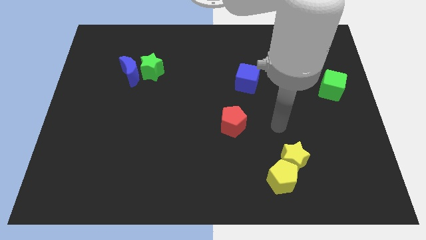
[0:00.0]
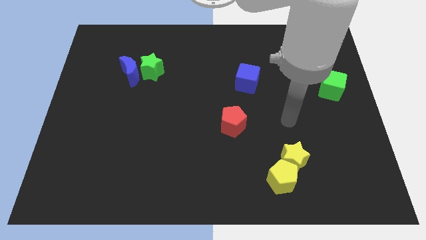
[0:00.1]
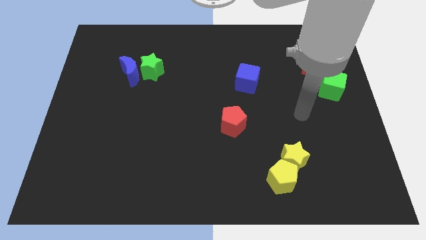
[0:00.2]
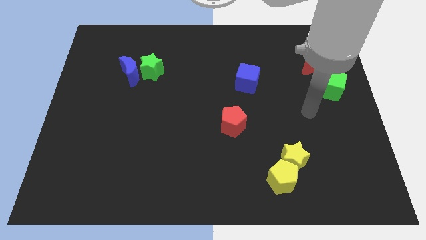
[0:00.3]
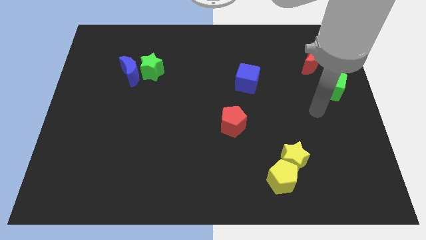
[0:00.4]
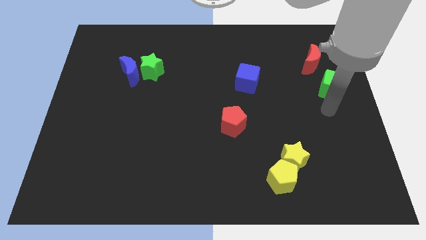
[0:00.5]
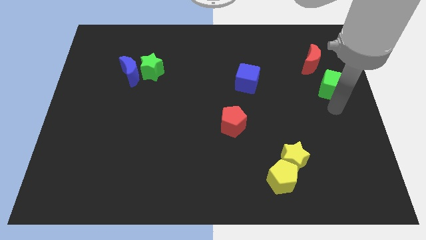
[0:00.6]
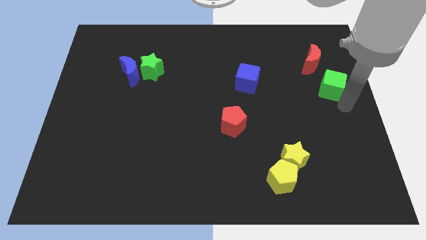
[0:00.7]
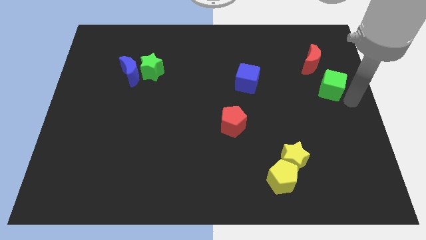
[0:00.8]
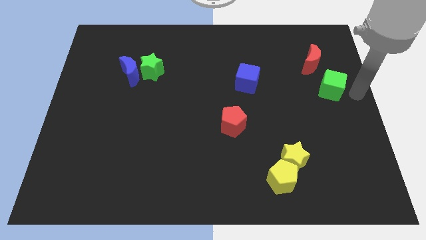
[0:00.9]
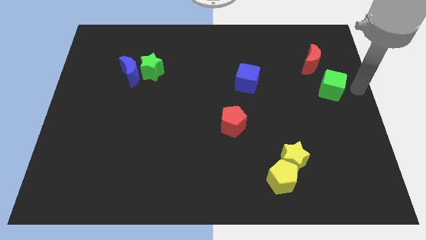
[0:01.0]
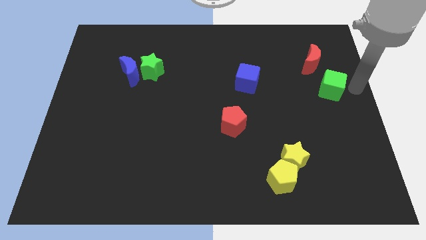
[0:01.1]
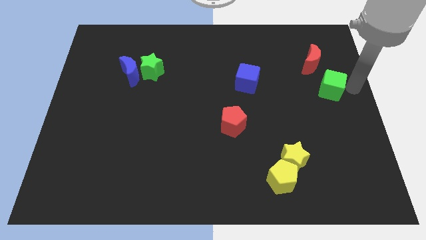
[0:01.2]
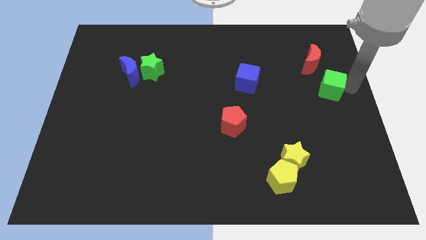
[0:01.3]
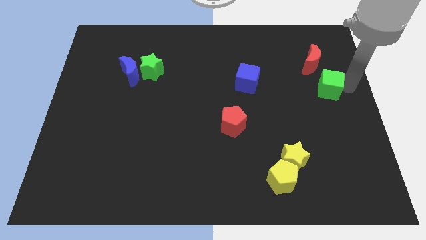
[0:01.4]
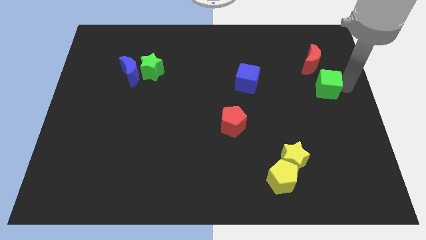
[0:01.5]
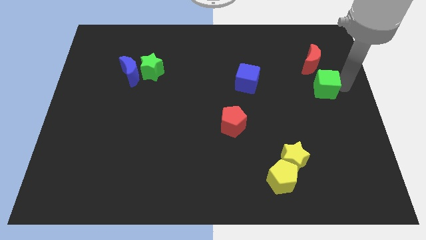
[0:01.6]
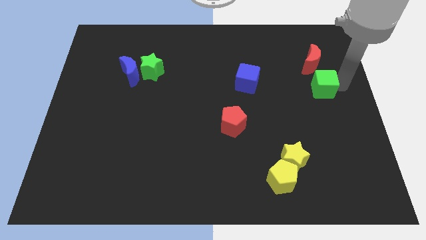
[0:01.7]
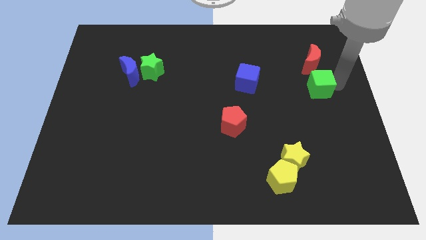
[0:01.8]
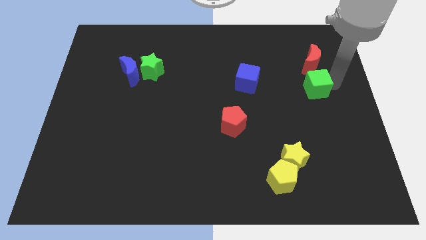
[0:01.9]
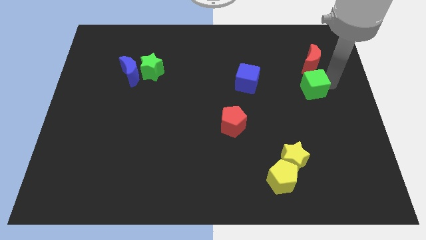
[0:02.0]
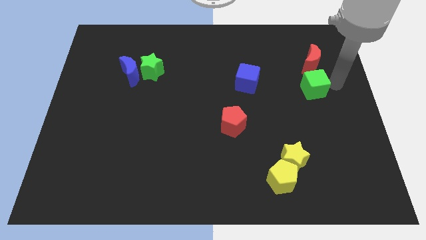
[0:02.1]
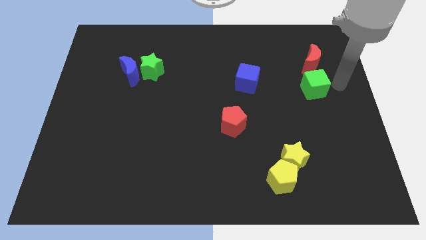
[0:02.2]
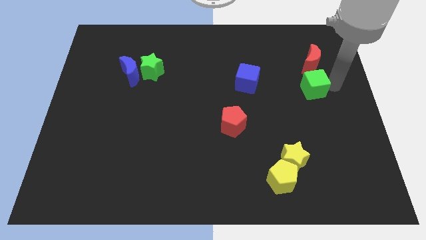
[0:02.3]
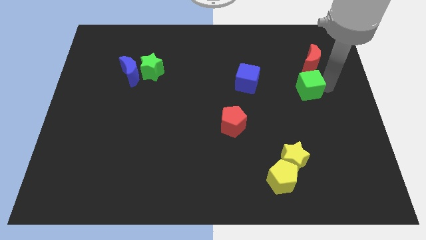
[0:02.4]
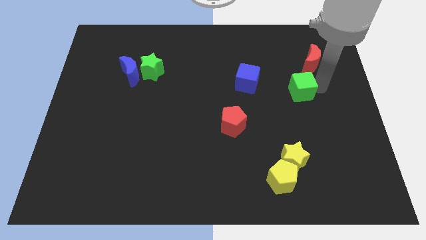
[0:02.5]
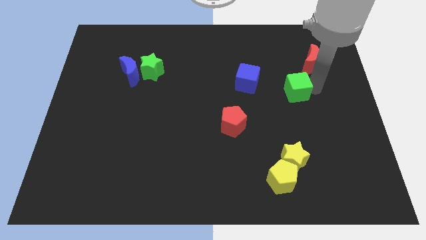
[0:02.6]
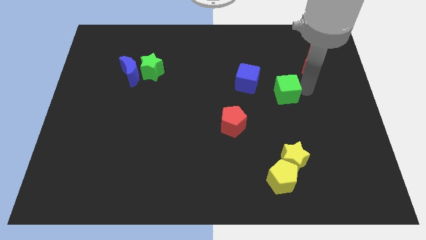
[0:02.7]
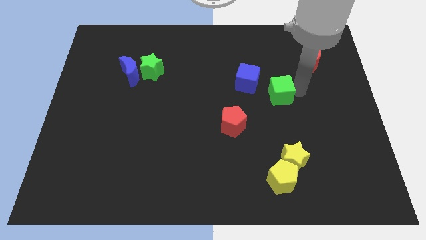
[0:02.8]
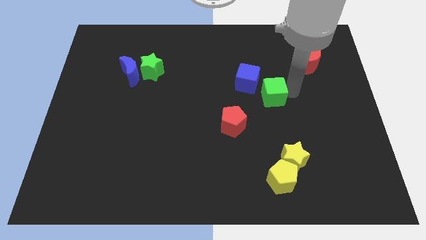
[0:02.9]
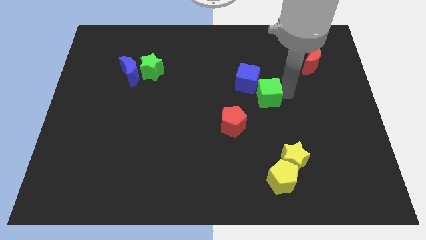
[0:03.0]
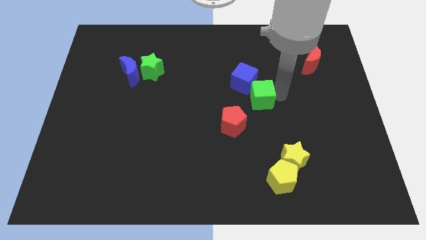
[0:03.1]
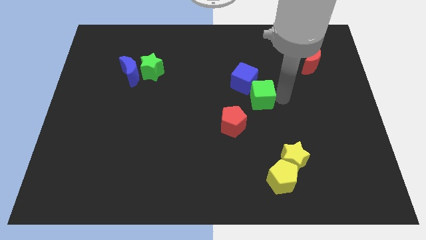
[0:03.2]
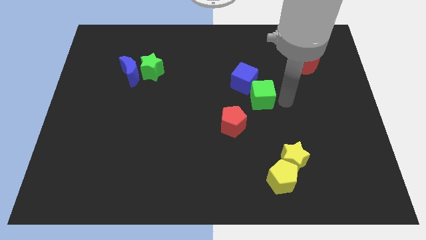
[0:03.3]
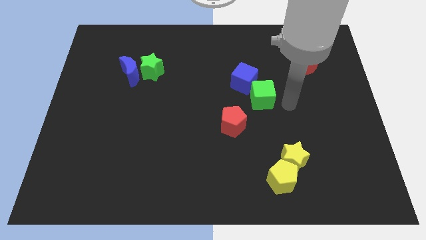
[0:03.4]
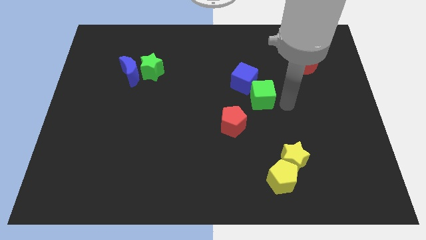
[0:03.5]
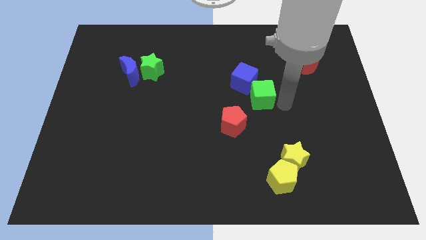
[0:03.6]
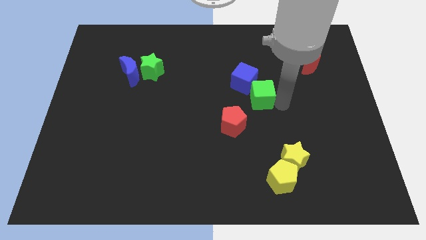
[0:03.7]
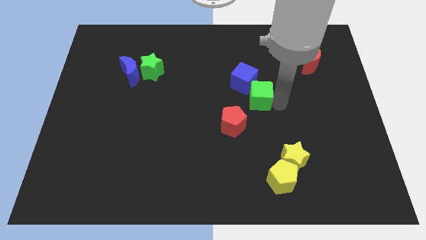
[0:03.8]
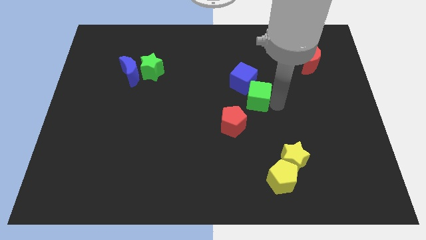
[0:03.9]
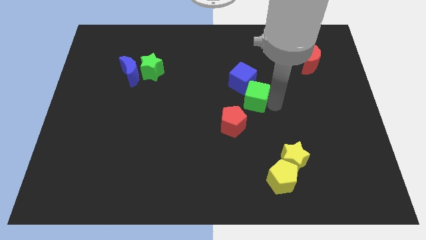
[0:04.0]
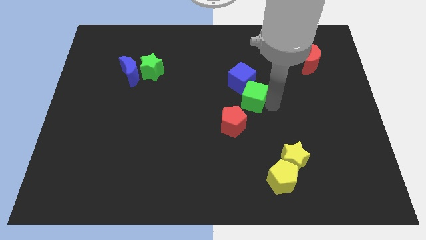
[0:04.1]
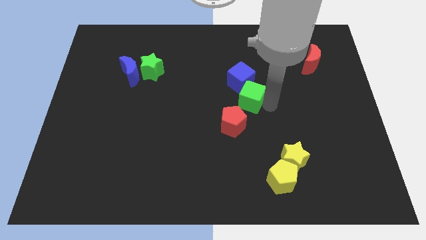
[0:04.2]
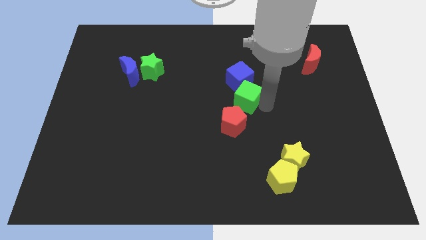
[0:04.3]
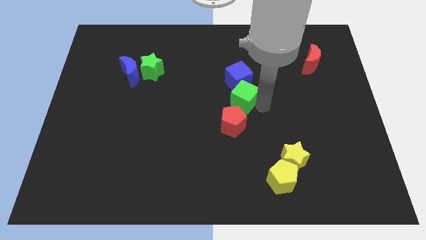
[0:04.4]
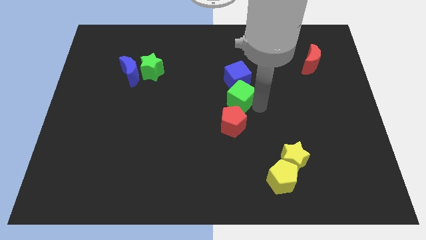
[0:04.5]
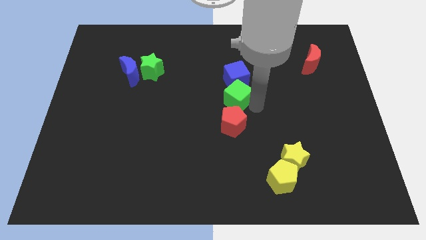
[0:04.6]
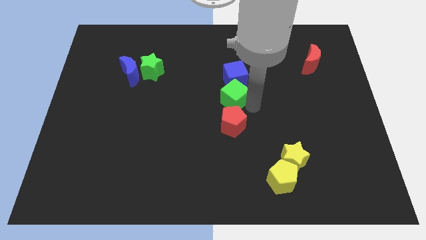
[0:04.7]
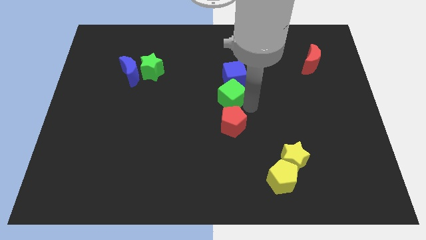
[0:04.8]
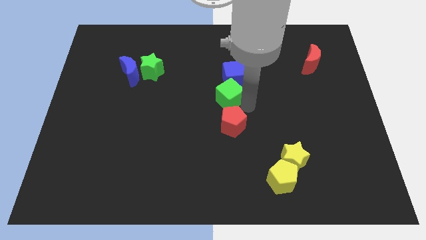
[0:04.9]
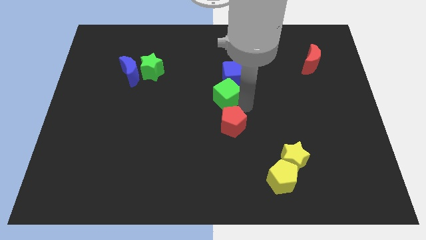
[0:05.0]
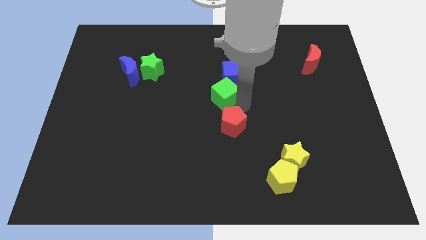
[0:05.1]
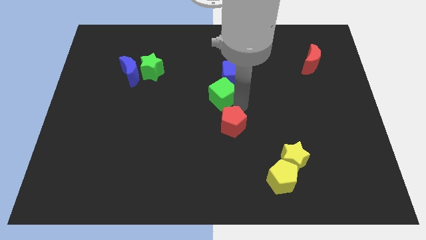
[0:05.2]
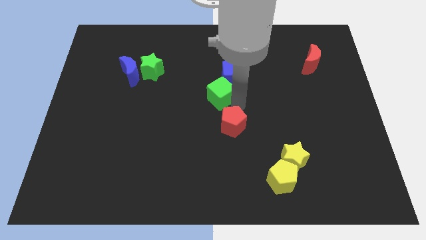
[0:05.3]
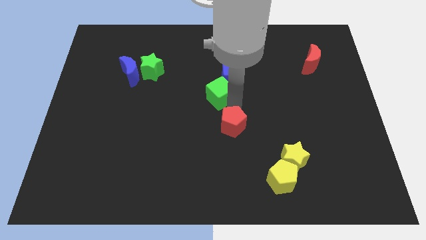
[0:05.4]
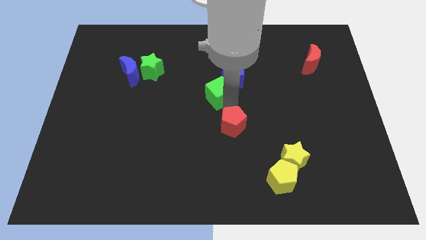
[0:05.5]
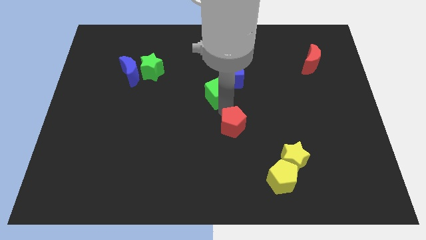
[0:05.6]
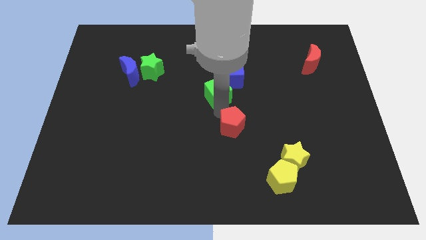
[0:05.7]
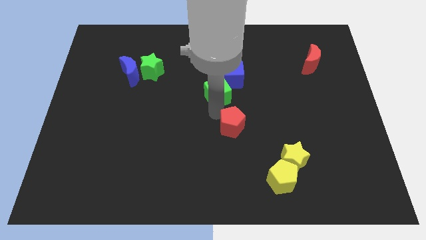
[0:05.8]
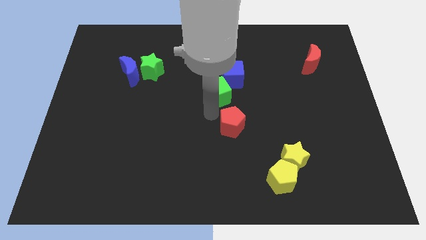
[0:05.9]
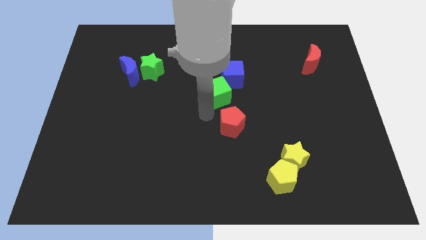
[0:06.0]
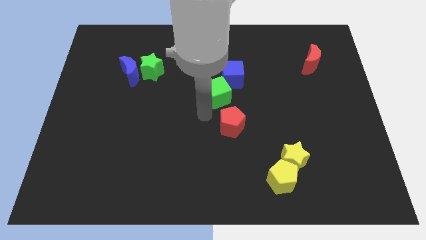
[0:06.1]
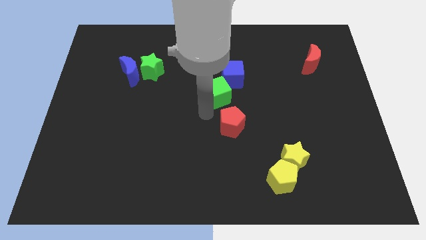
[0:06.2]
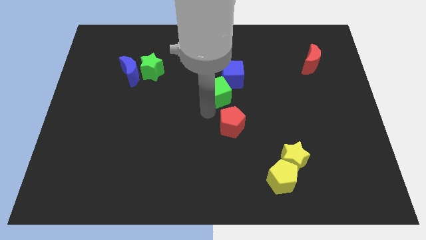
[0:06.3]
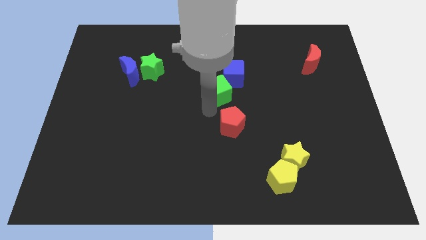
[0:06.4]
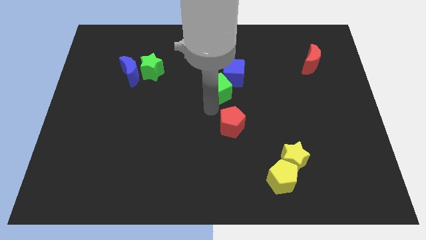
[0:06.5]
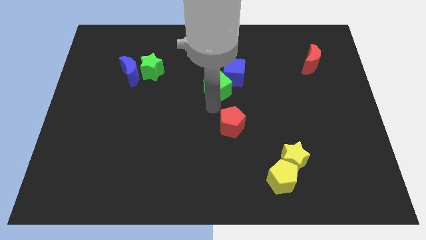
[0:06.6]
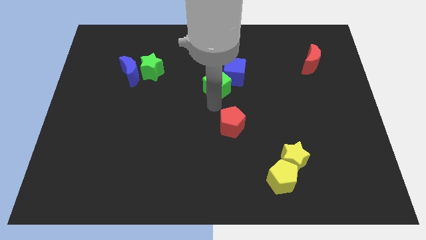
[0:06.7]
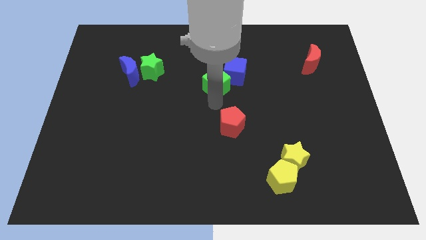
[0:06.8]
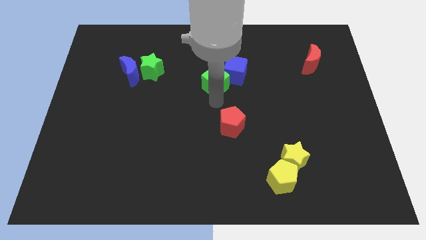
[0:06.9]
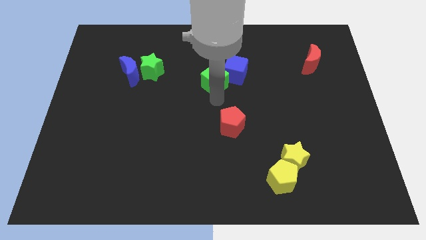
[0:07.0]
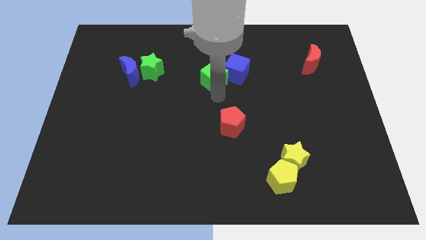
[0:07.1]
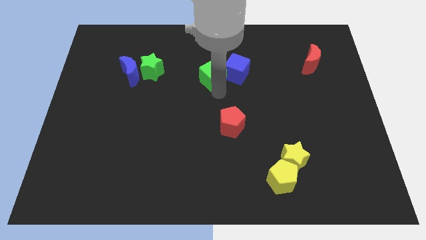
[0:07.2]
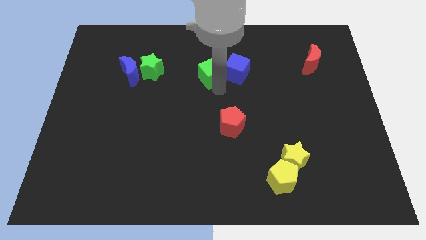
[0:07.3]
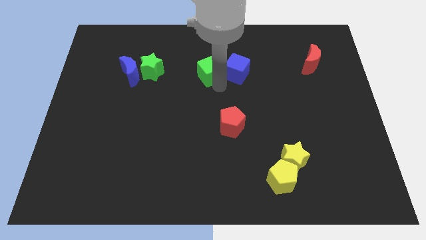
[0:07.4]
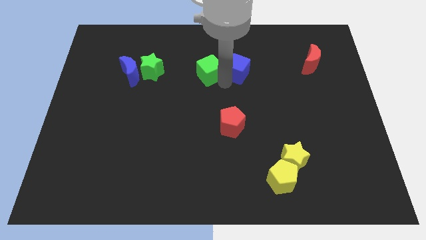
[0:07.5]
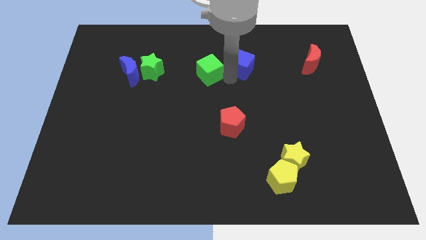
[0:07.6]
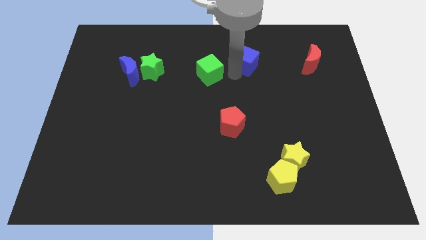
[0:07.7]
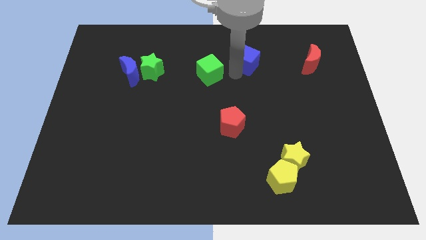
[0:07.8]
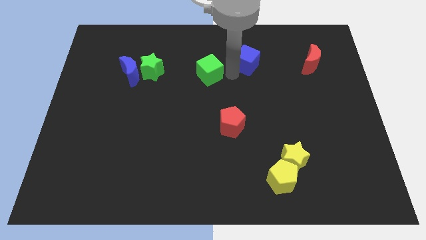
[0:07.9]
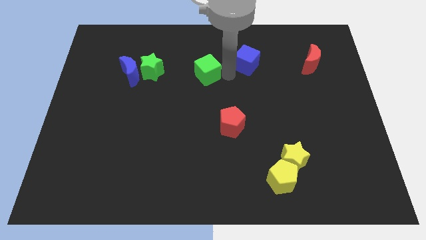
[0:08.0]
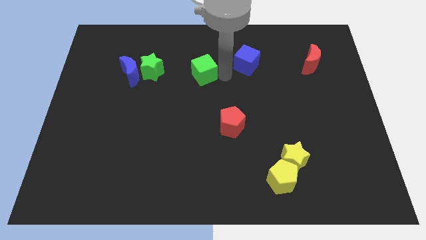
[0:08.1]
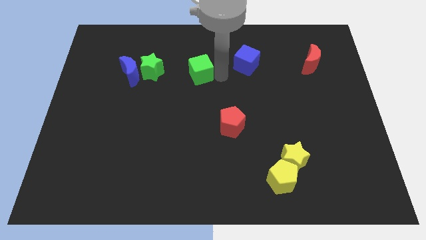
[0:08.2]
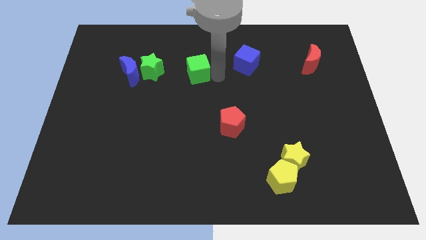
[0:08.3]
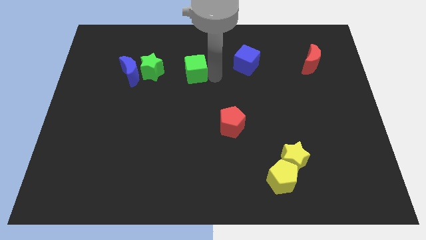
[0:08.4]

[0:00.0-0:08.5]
put the green cube to the right side of the blue moon
